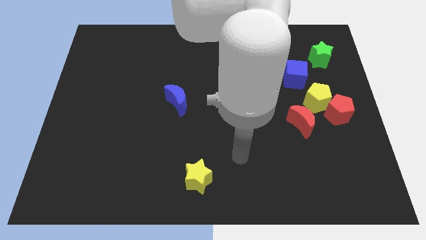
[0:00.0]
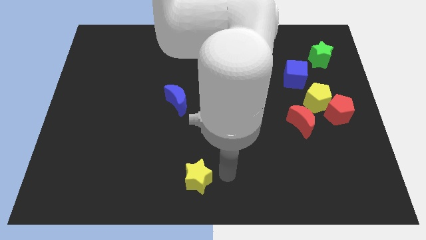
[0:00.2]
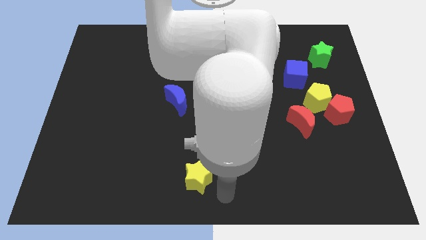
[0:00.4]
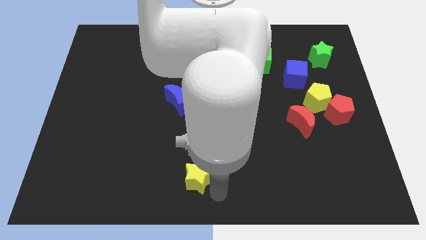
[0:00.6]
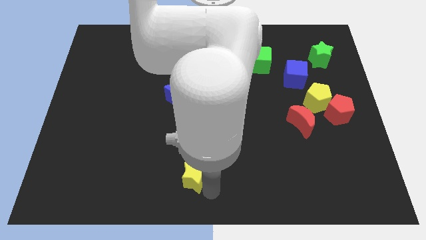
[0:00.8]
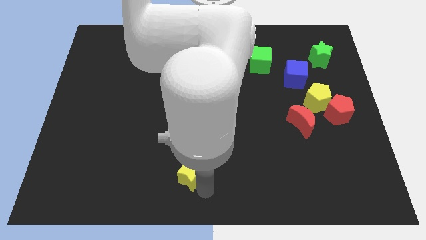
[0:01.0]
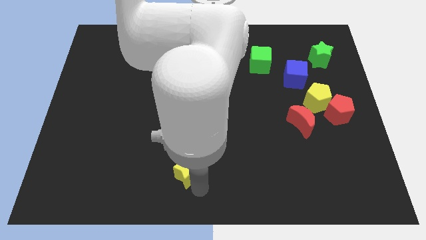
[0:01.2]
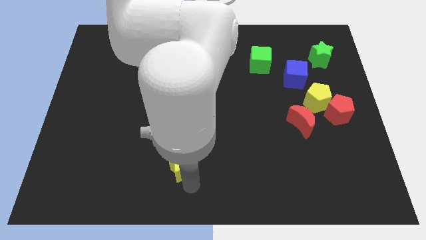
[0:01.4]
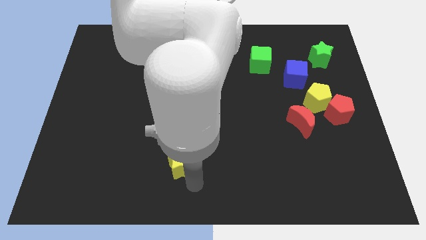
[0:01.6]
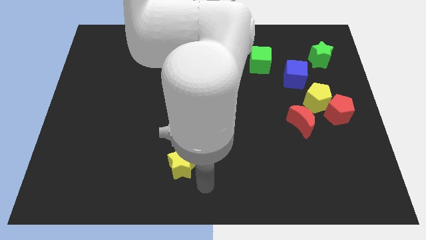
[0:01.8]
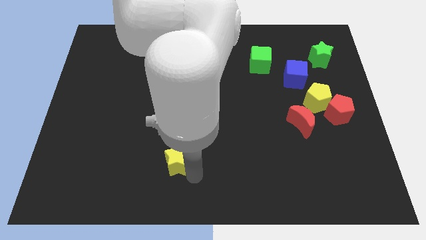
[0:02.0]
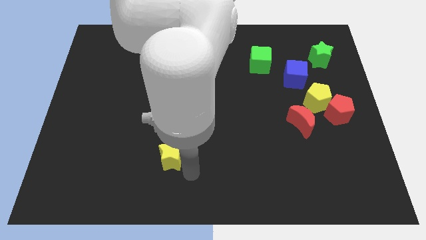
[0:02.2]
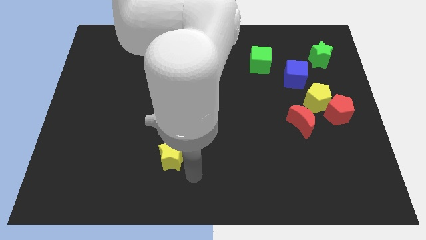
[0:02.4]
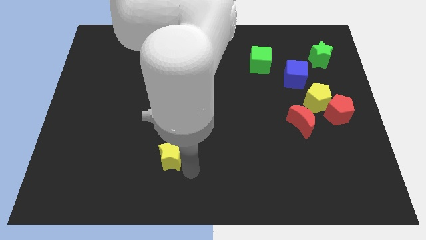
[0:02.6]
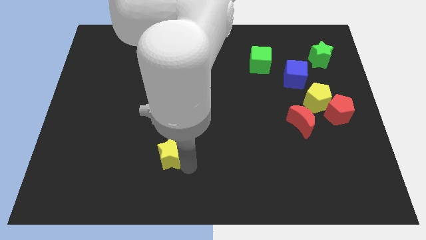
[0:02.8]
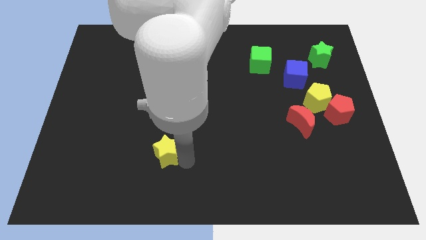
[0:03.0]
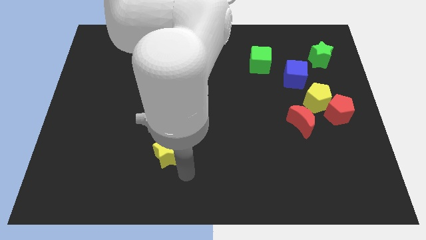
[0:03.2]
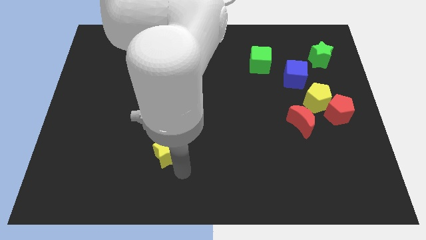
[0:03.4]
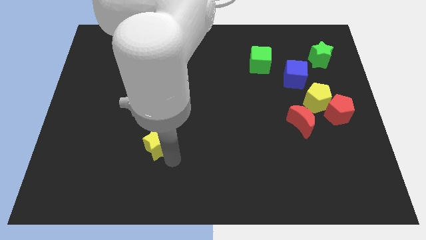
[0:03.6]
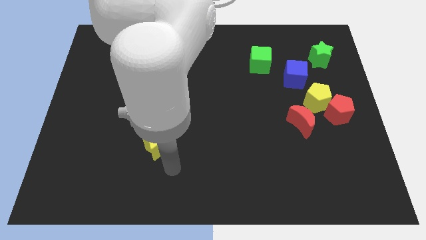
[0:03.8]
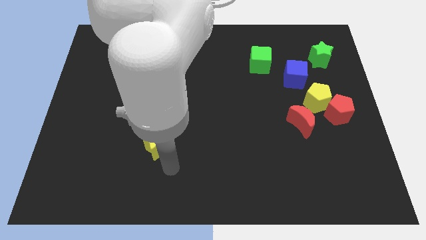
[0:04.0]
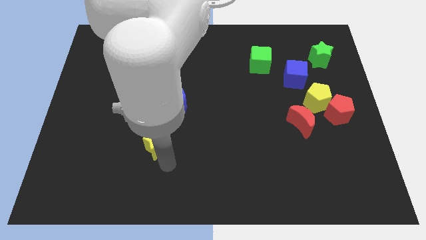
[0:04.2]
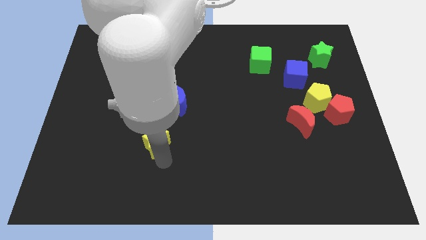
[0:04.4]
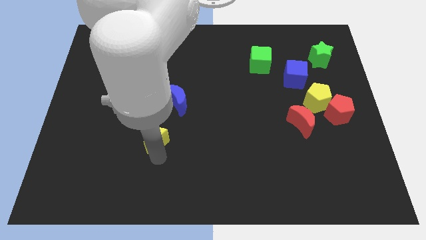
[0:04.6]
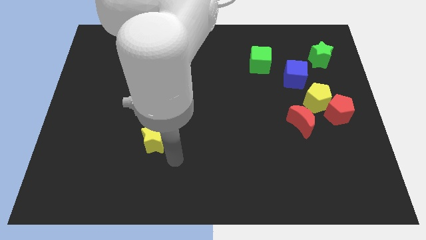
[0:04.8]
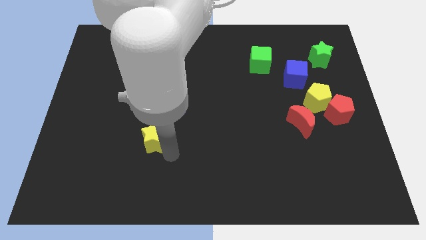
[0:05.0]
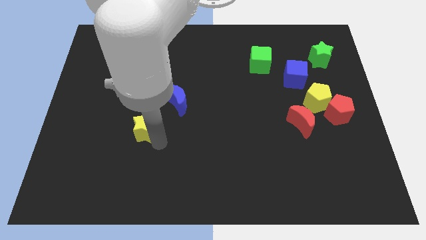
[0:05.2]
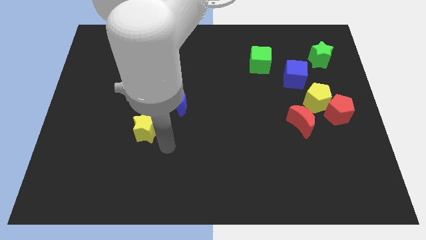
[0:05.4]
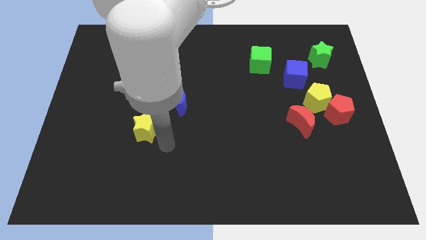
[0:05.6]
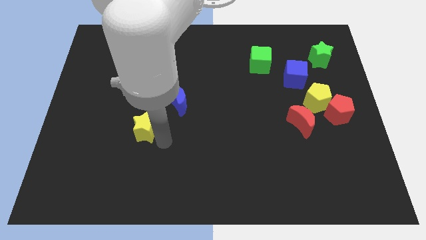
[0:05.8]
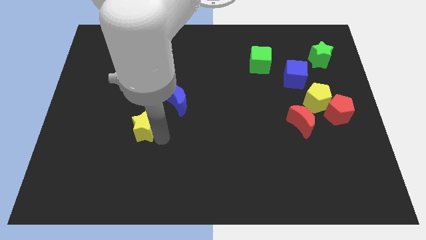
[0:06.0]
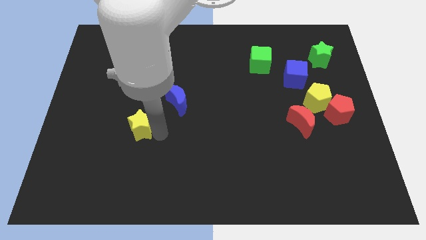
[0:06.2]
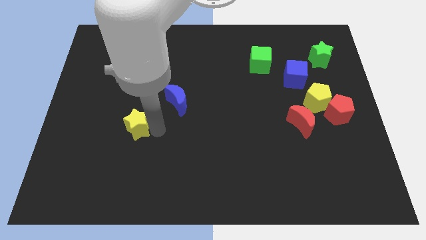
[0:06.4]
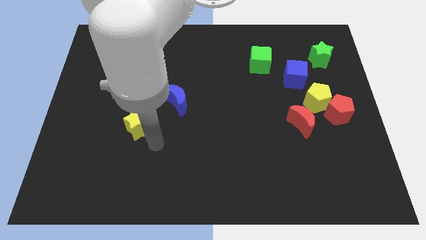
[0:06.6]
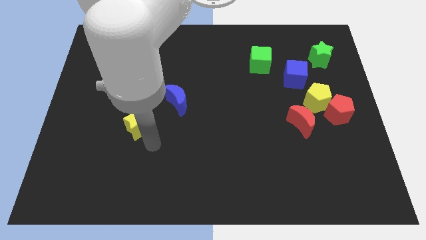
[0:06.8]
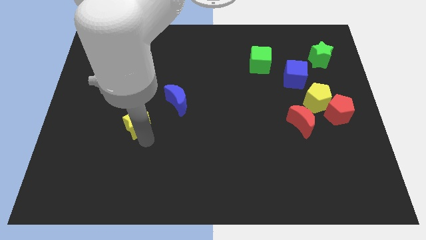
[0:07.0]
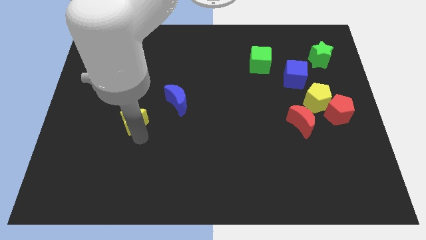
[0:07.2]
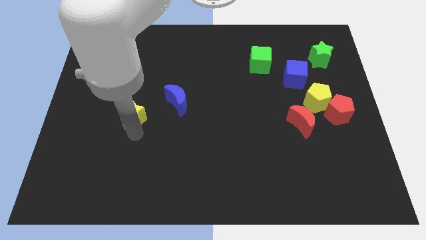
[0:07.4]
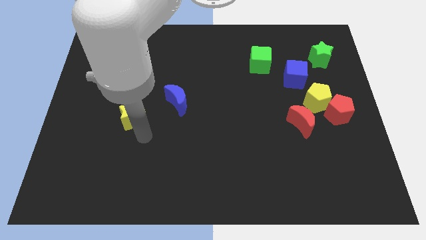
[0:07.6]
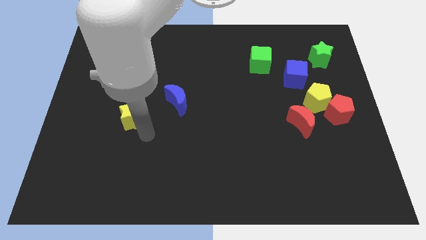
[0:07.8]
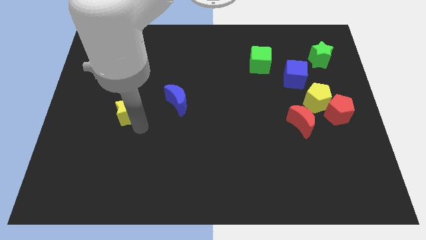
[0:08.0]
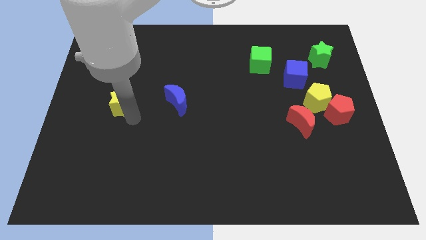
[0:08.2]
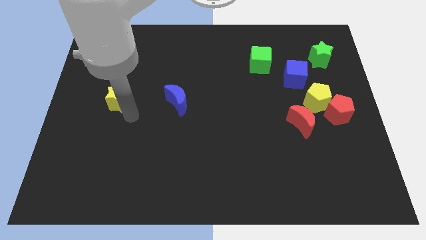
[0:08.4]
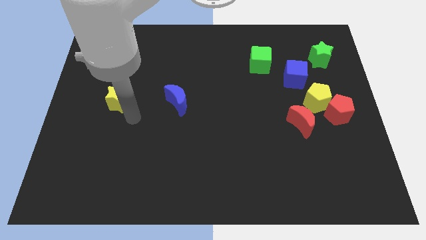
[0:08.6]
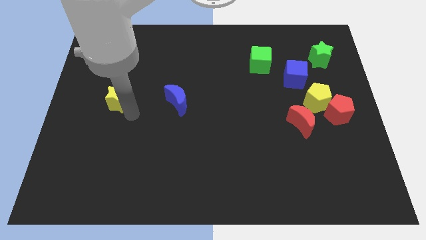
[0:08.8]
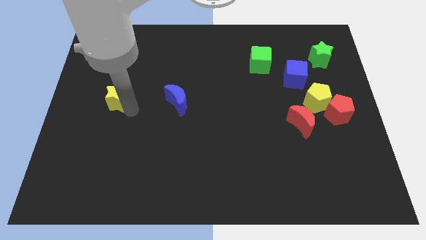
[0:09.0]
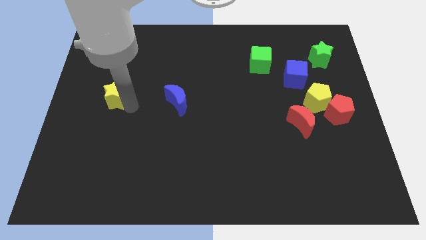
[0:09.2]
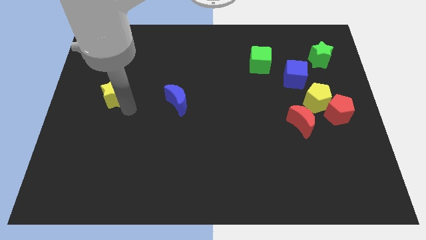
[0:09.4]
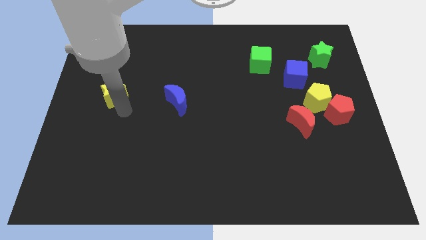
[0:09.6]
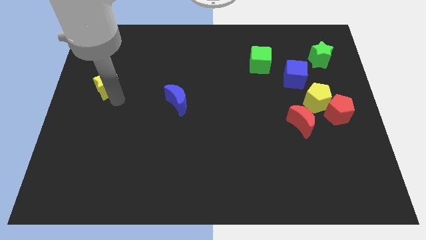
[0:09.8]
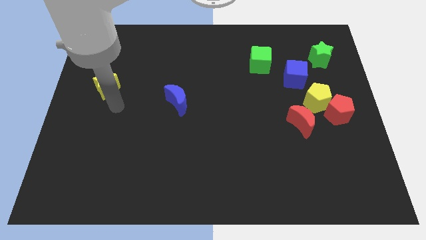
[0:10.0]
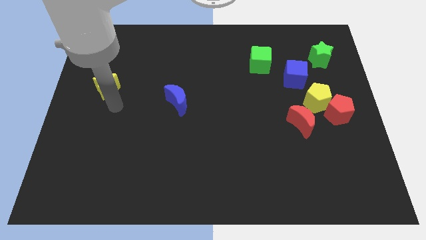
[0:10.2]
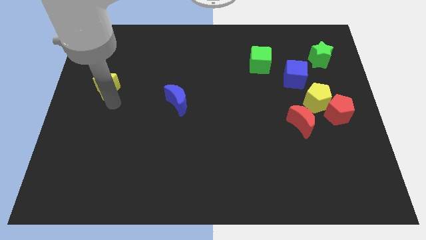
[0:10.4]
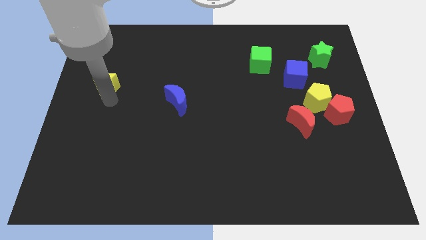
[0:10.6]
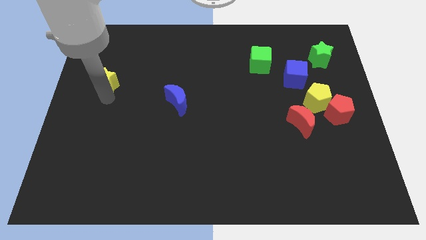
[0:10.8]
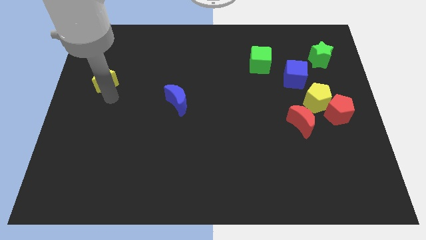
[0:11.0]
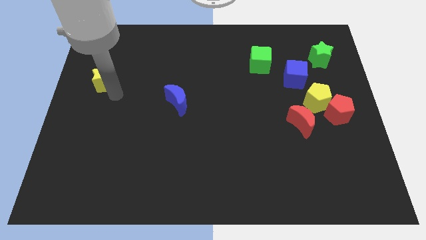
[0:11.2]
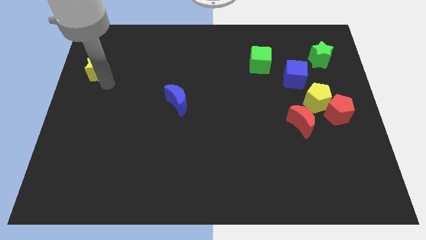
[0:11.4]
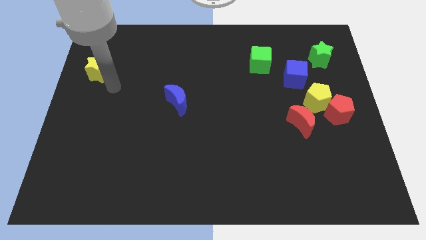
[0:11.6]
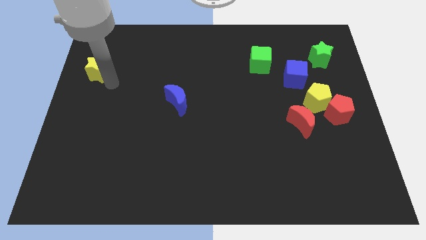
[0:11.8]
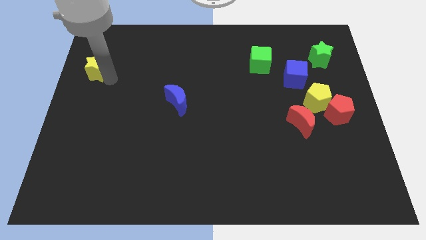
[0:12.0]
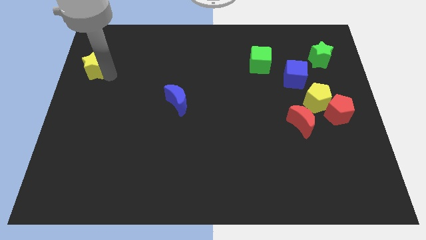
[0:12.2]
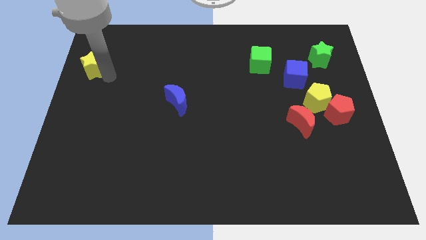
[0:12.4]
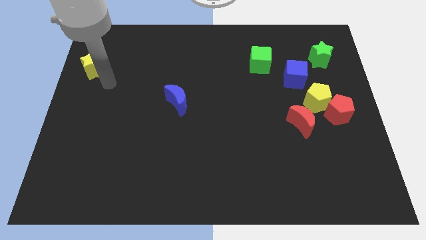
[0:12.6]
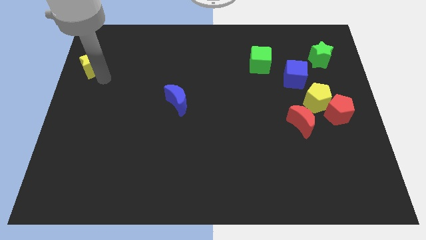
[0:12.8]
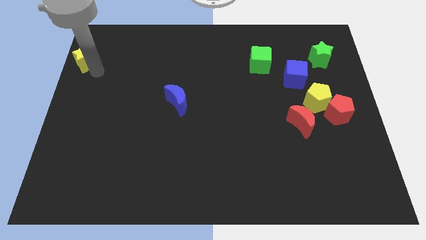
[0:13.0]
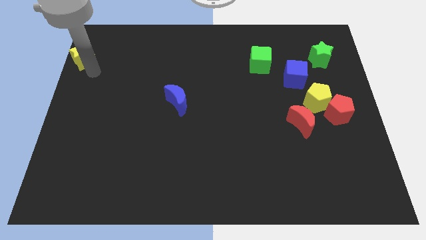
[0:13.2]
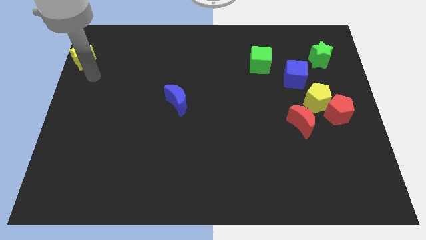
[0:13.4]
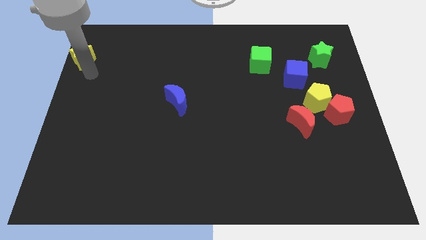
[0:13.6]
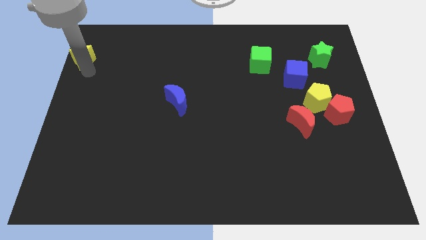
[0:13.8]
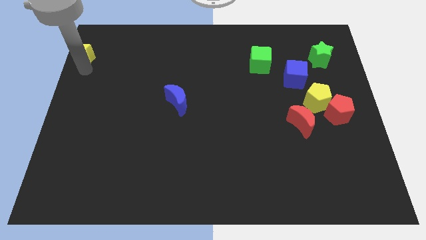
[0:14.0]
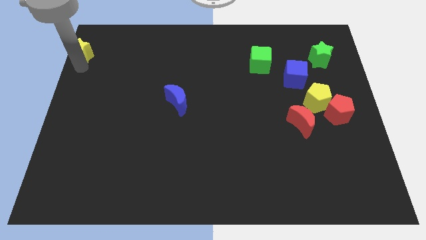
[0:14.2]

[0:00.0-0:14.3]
slide the yellow star to the top left corner
